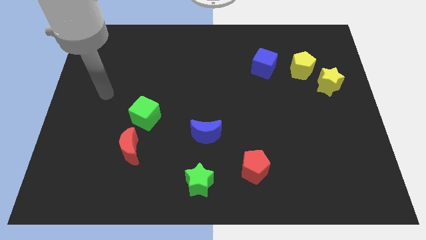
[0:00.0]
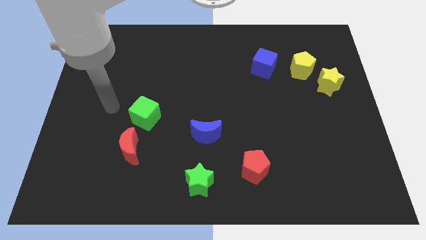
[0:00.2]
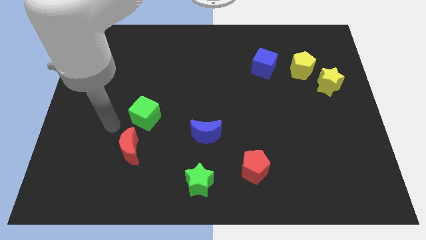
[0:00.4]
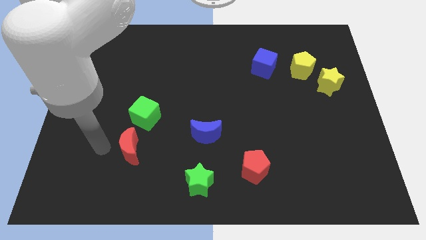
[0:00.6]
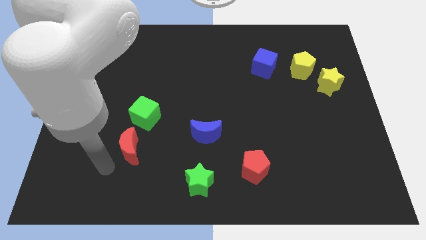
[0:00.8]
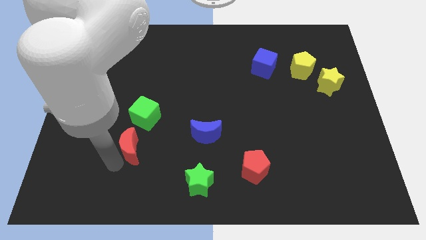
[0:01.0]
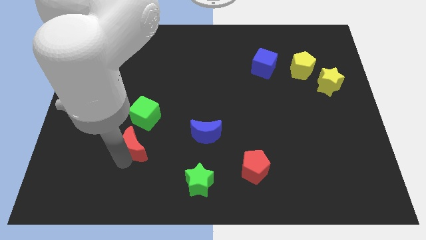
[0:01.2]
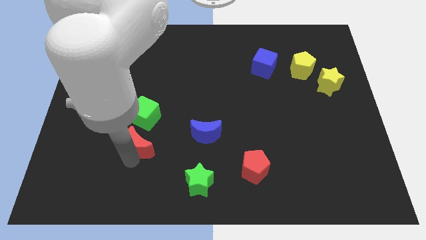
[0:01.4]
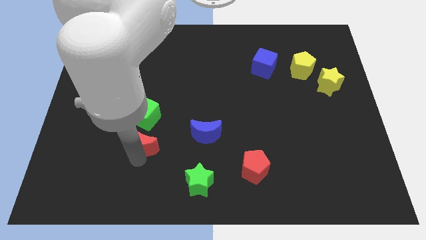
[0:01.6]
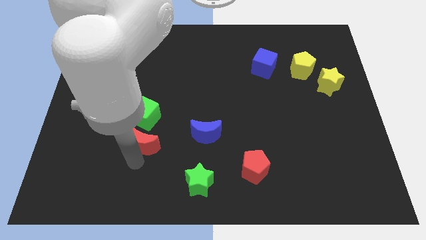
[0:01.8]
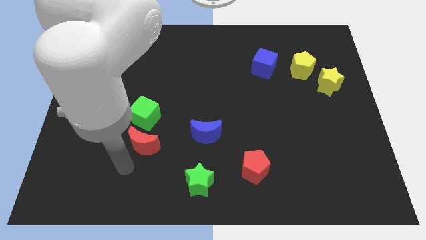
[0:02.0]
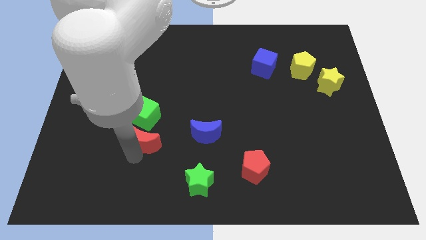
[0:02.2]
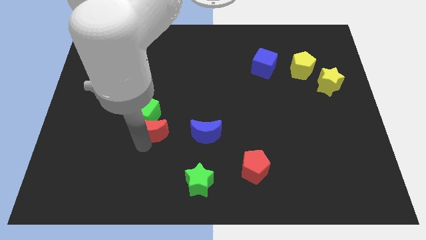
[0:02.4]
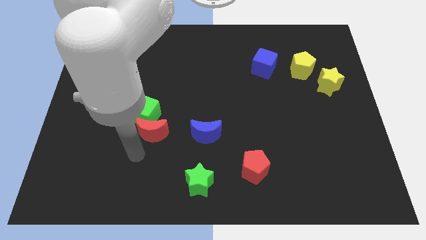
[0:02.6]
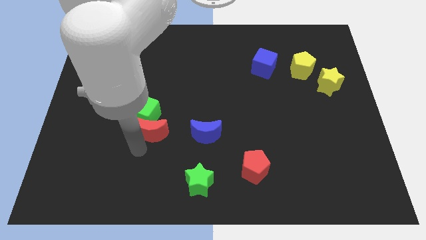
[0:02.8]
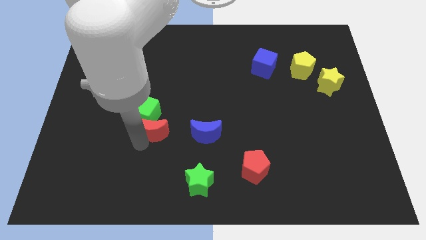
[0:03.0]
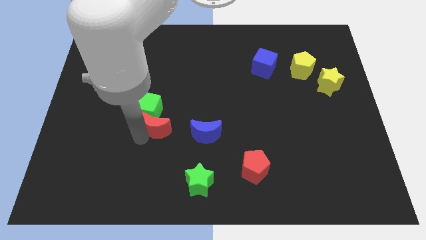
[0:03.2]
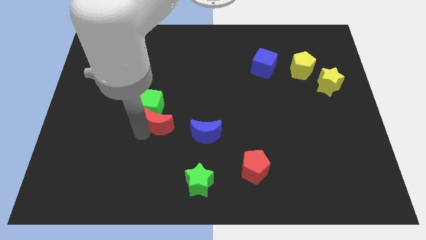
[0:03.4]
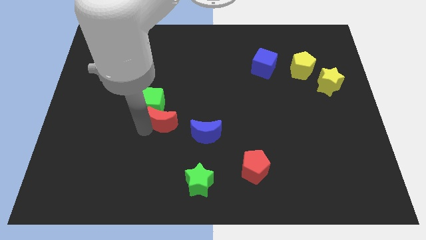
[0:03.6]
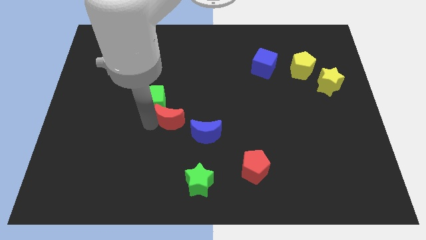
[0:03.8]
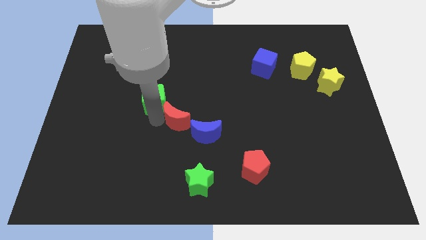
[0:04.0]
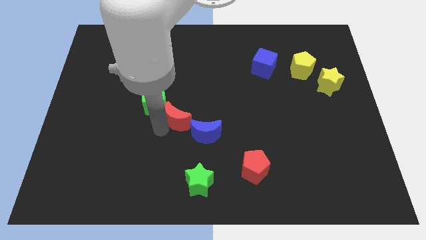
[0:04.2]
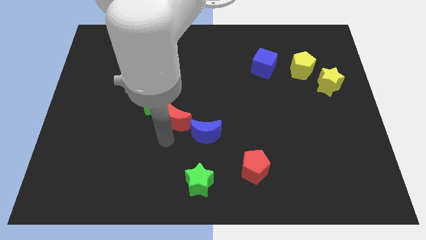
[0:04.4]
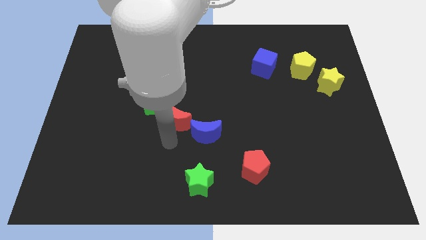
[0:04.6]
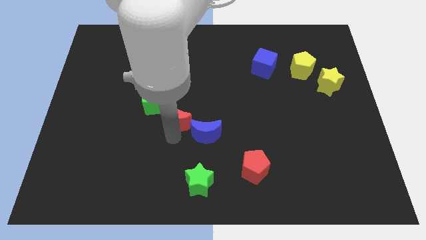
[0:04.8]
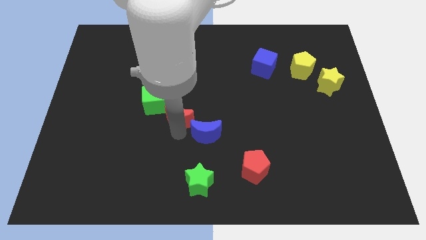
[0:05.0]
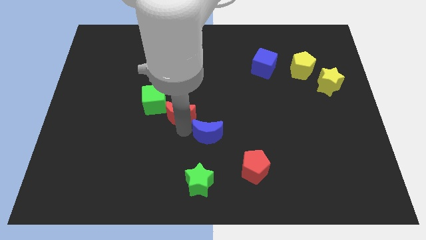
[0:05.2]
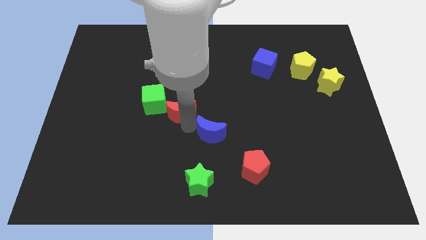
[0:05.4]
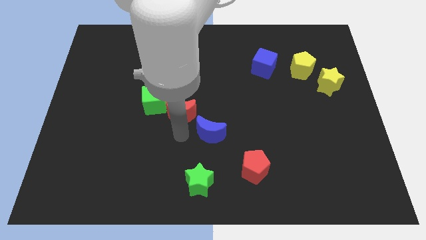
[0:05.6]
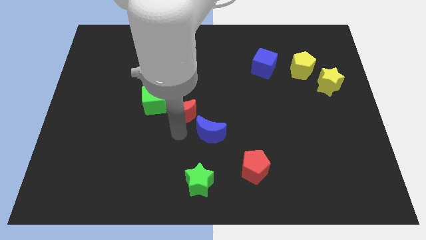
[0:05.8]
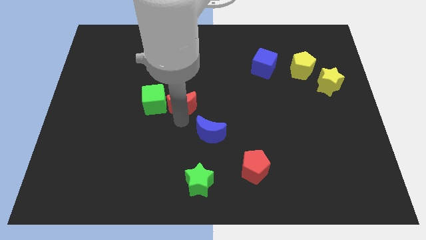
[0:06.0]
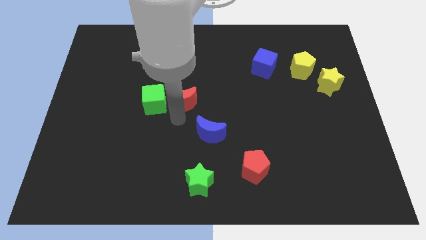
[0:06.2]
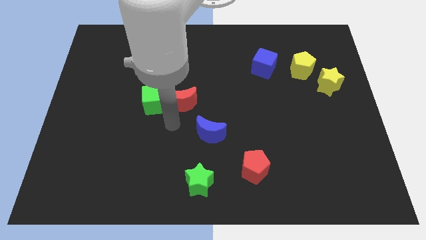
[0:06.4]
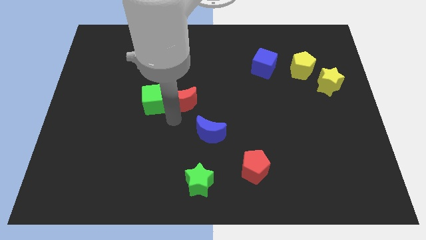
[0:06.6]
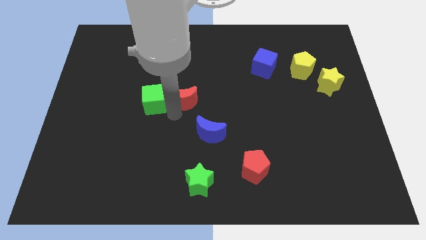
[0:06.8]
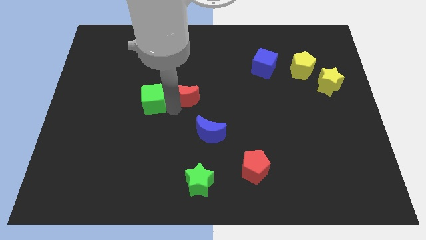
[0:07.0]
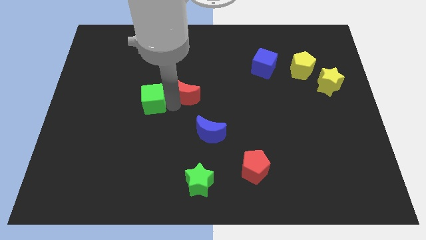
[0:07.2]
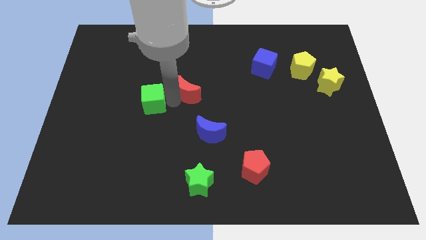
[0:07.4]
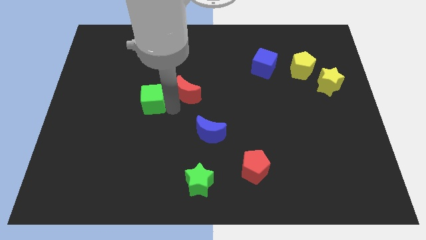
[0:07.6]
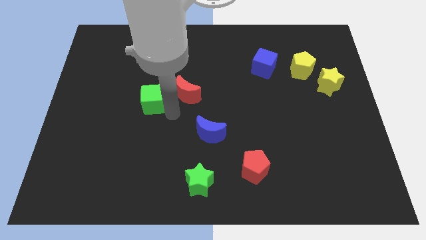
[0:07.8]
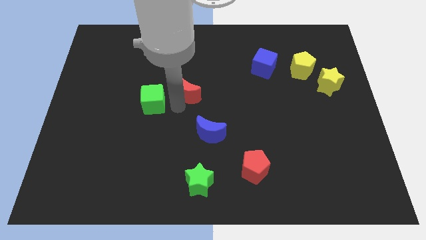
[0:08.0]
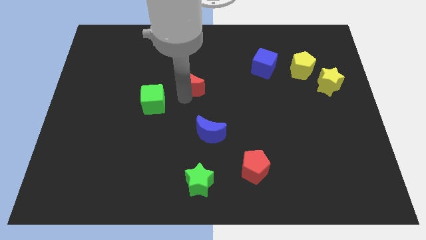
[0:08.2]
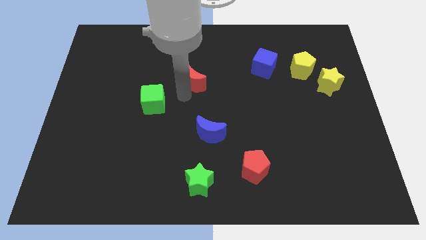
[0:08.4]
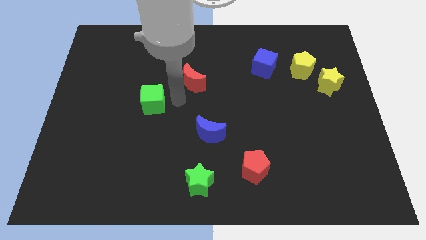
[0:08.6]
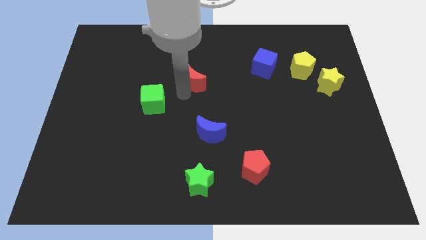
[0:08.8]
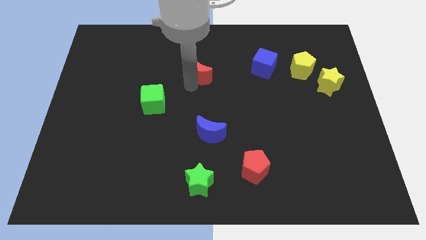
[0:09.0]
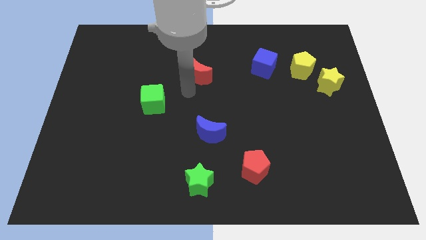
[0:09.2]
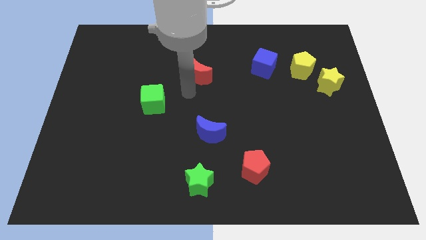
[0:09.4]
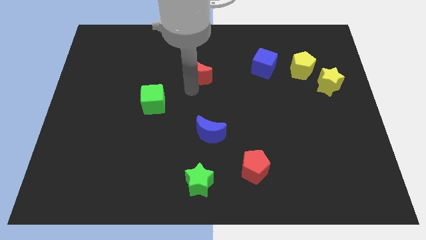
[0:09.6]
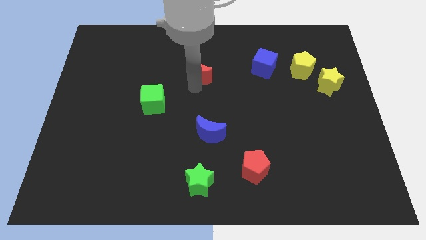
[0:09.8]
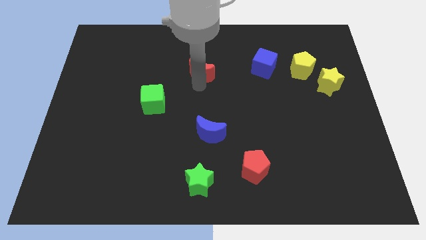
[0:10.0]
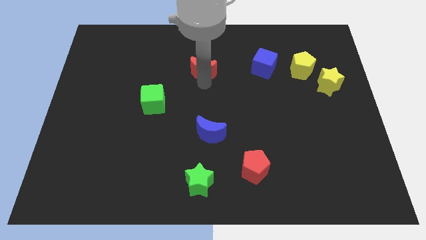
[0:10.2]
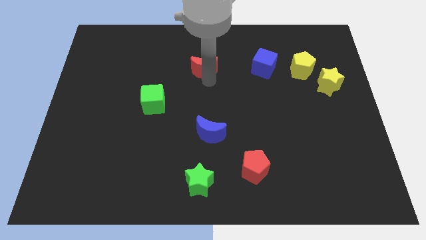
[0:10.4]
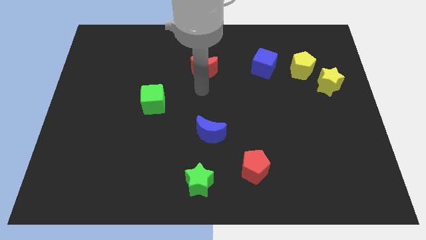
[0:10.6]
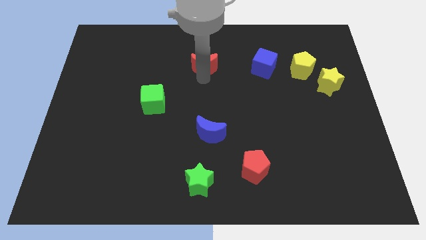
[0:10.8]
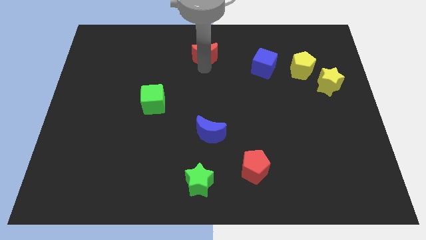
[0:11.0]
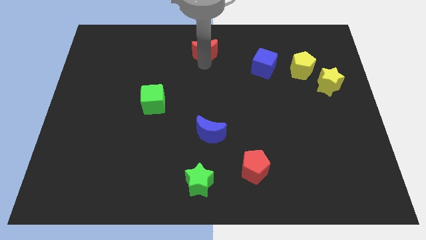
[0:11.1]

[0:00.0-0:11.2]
move the red moon to the top

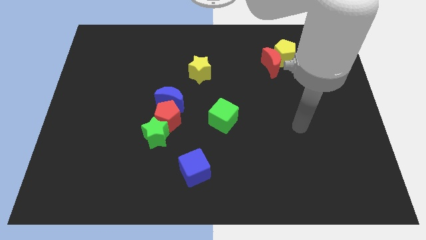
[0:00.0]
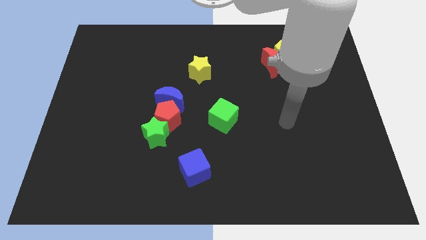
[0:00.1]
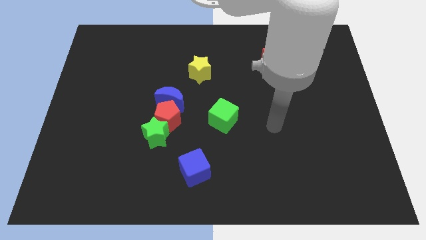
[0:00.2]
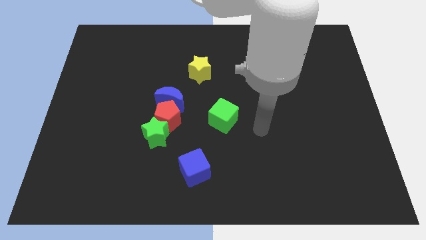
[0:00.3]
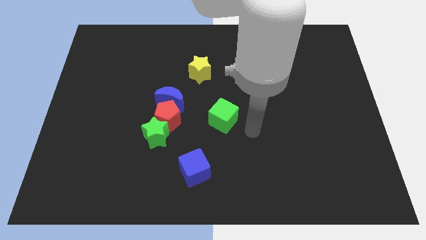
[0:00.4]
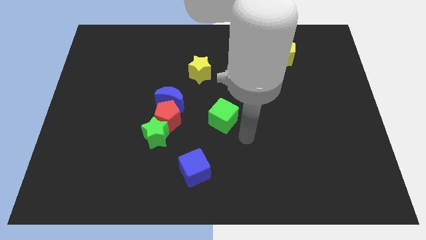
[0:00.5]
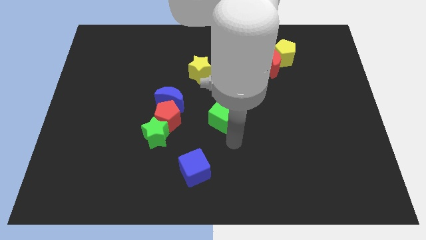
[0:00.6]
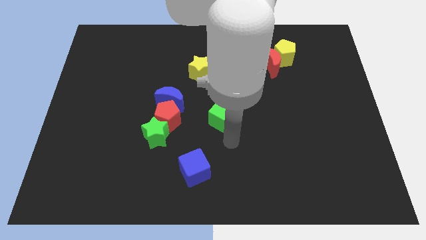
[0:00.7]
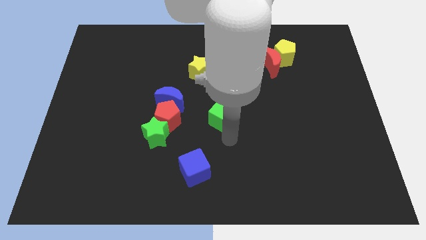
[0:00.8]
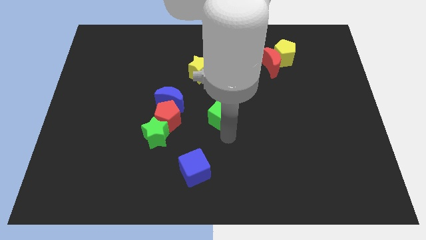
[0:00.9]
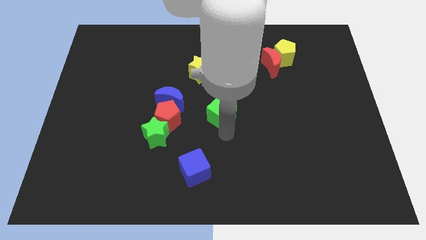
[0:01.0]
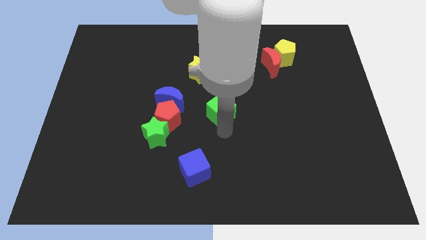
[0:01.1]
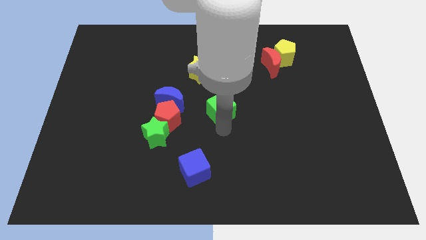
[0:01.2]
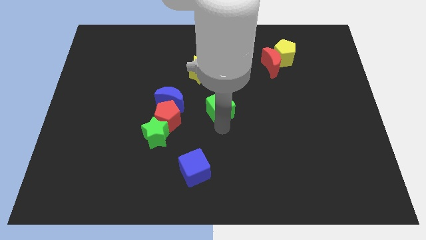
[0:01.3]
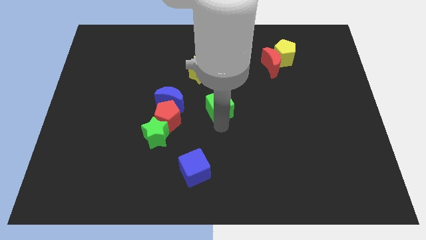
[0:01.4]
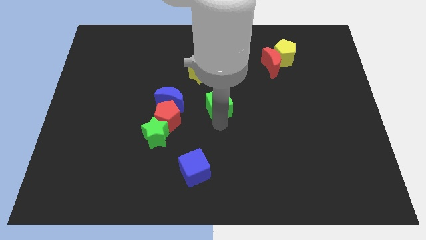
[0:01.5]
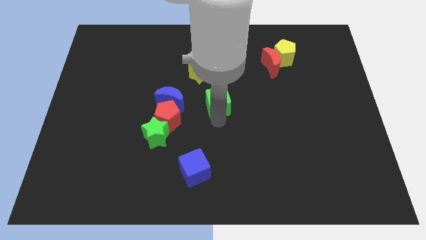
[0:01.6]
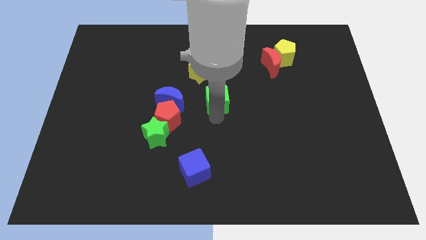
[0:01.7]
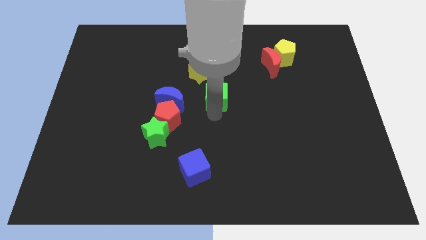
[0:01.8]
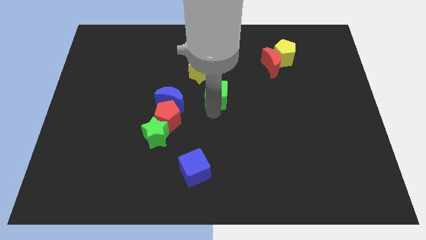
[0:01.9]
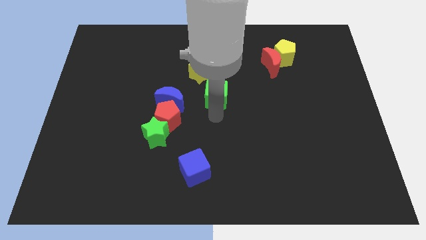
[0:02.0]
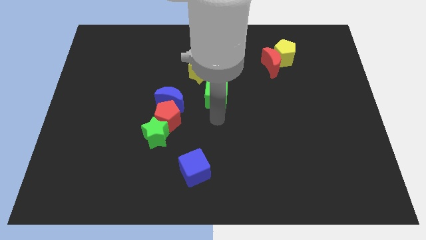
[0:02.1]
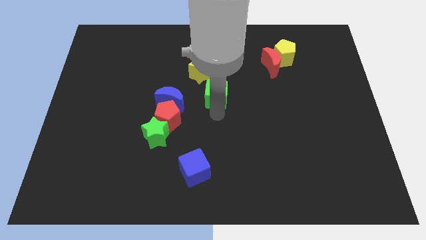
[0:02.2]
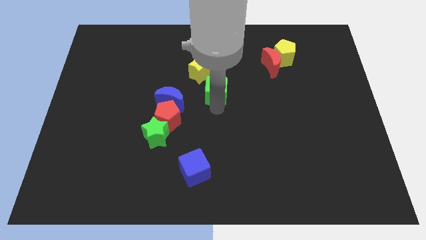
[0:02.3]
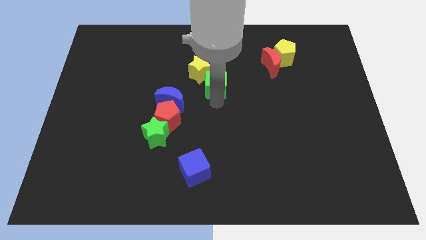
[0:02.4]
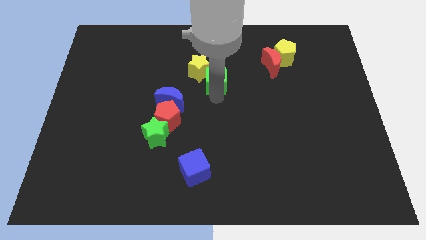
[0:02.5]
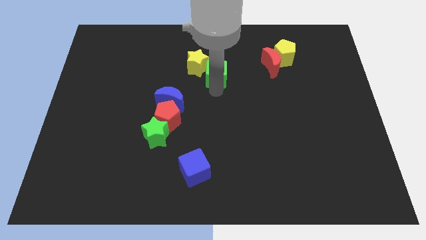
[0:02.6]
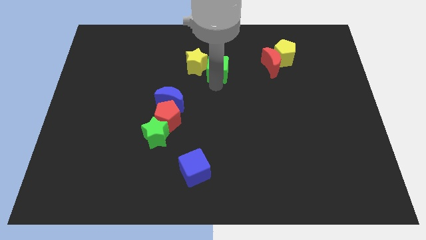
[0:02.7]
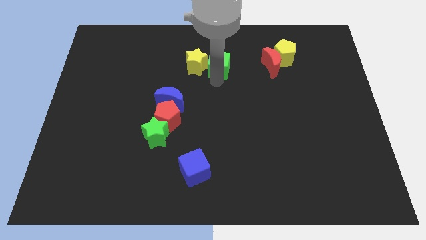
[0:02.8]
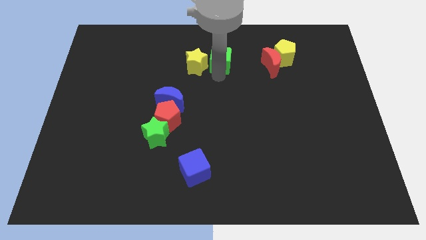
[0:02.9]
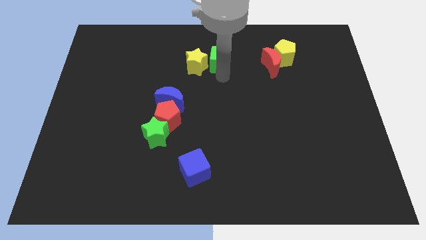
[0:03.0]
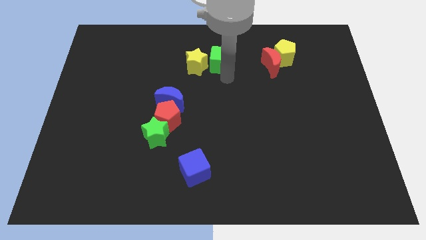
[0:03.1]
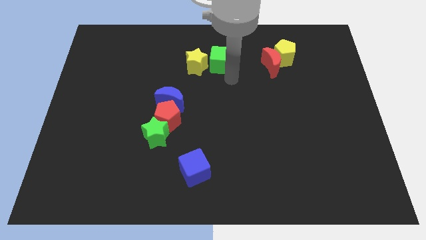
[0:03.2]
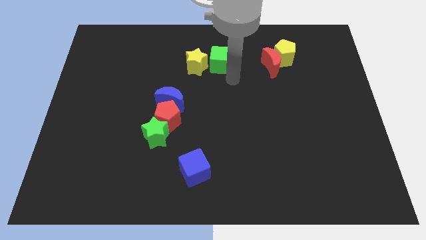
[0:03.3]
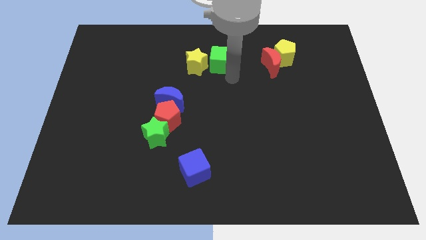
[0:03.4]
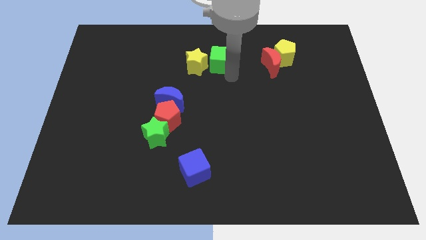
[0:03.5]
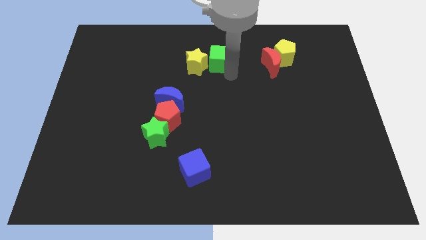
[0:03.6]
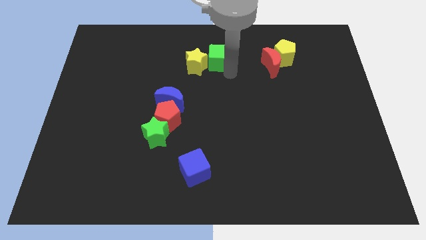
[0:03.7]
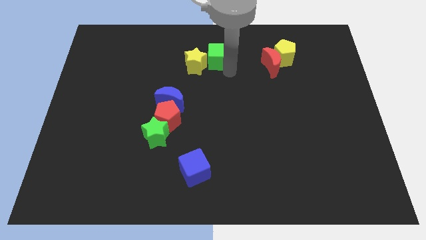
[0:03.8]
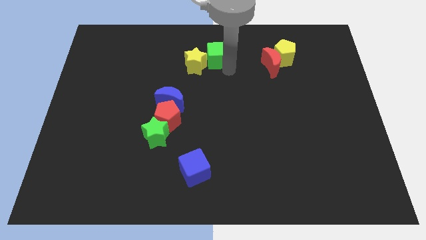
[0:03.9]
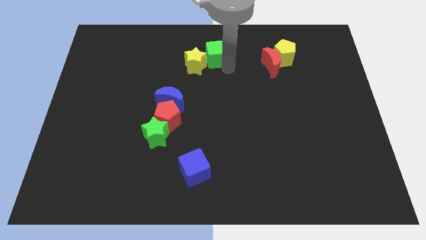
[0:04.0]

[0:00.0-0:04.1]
push the green cube to the top side
